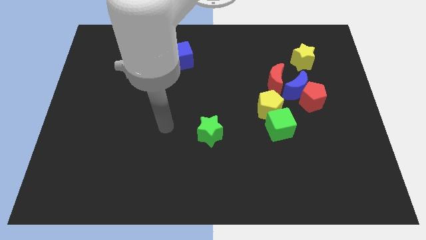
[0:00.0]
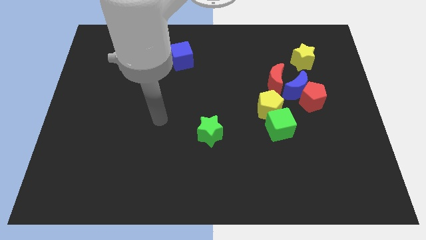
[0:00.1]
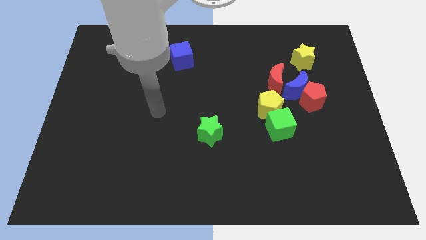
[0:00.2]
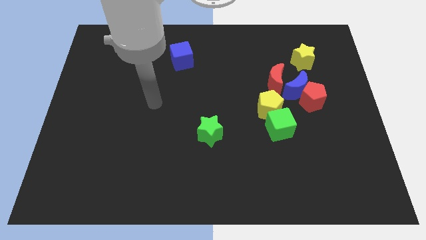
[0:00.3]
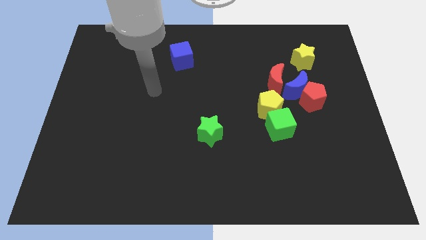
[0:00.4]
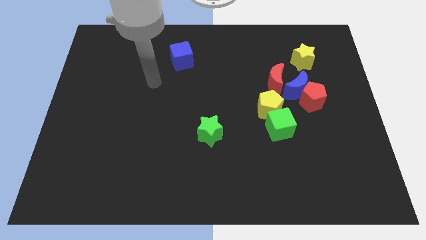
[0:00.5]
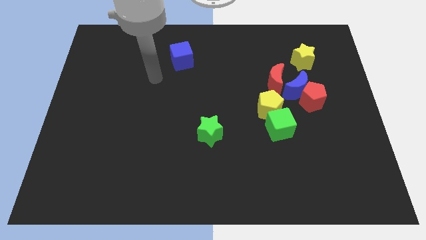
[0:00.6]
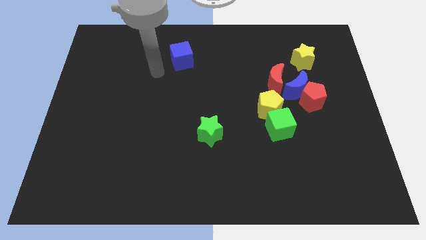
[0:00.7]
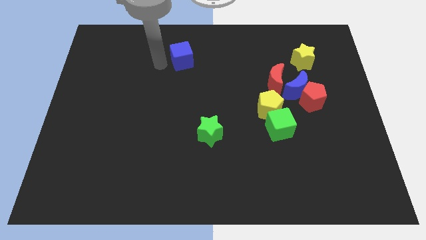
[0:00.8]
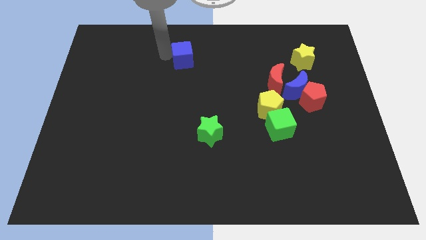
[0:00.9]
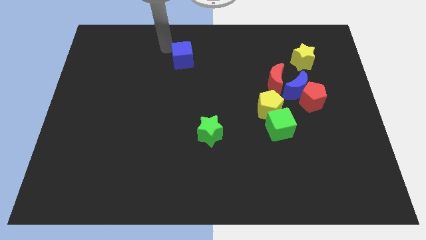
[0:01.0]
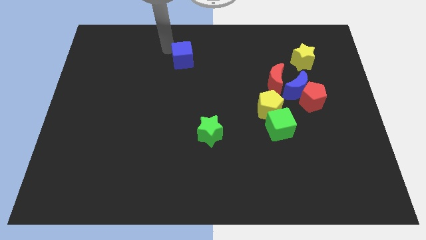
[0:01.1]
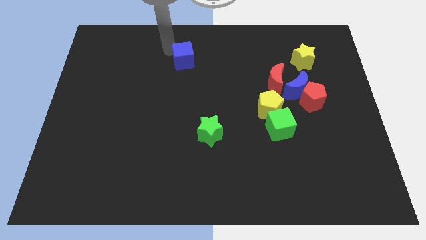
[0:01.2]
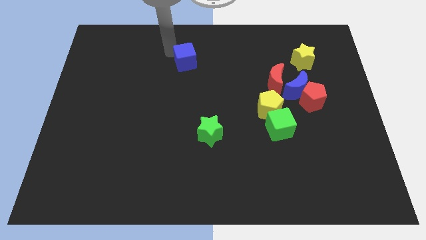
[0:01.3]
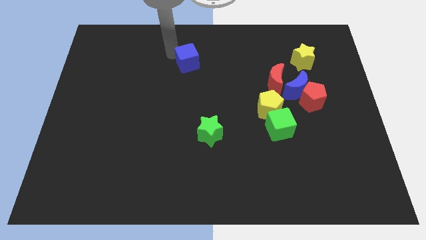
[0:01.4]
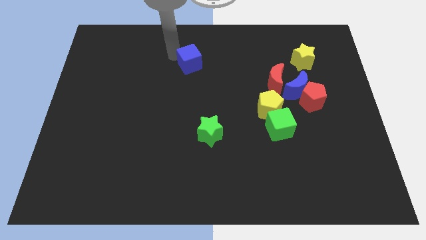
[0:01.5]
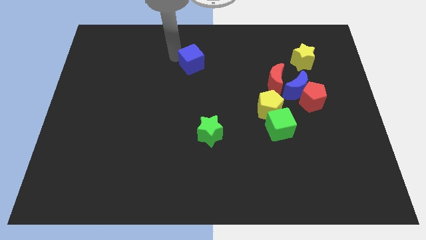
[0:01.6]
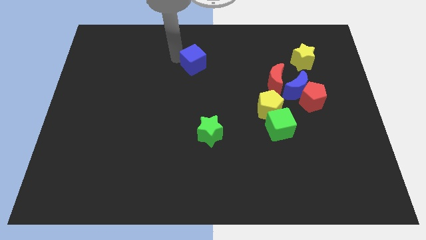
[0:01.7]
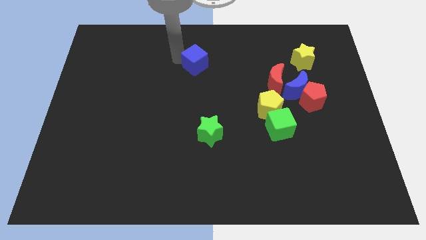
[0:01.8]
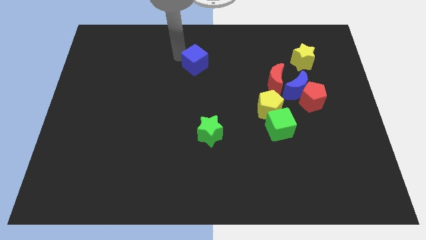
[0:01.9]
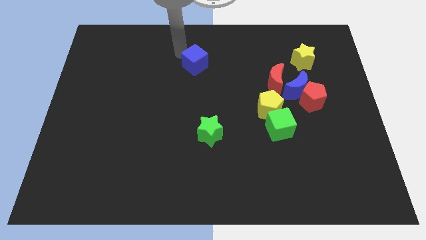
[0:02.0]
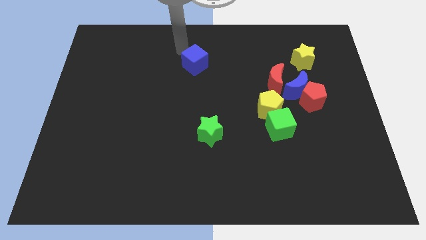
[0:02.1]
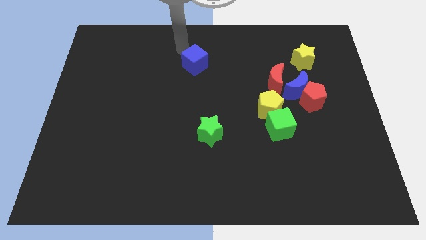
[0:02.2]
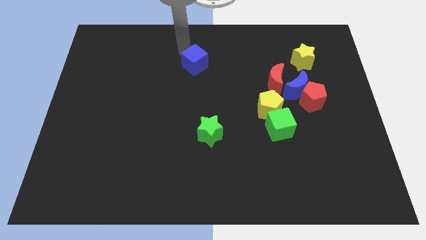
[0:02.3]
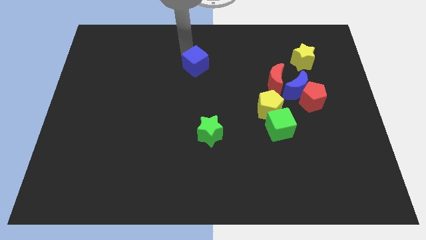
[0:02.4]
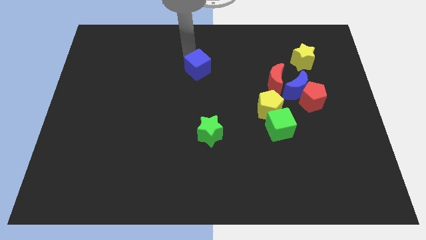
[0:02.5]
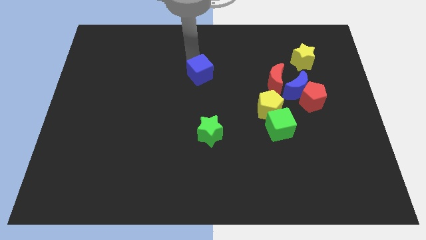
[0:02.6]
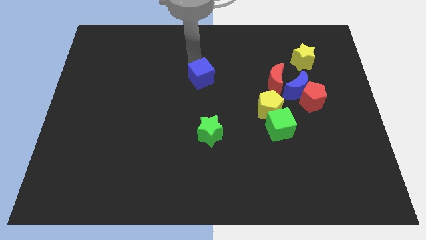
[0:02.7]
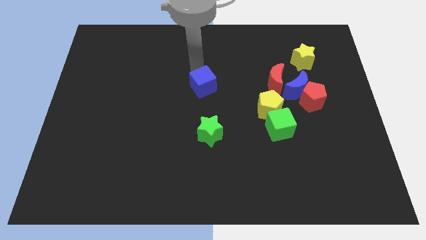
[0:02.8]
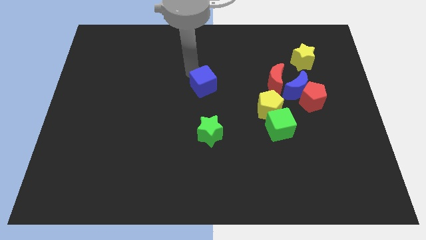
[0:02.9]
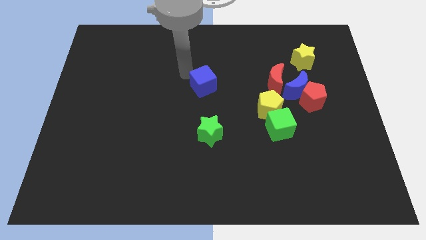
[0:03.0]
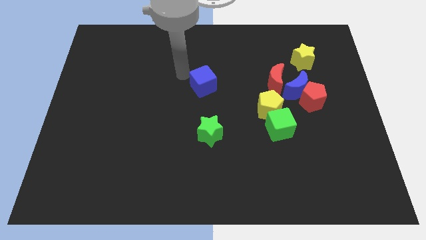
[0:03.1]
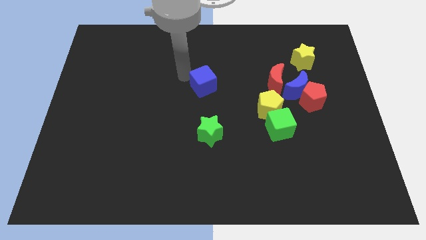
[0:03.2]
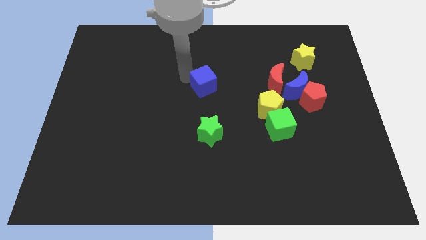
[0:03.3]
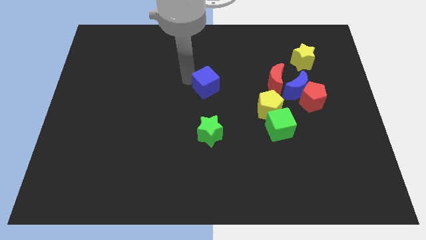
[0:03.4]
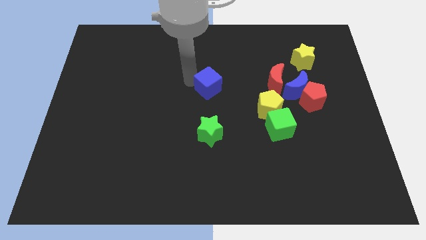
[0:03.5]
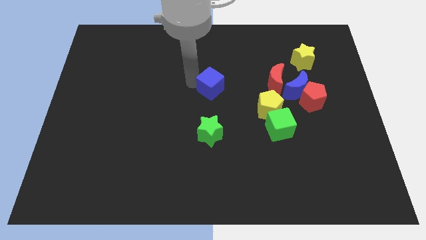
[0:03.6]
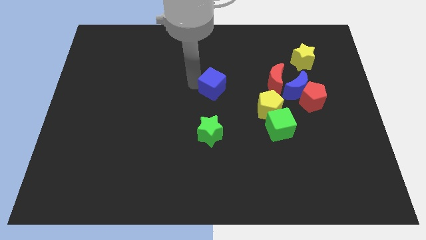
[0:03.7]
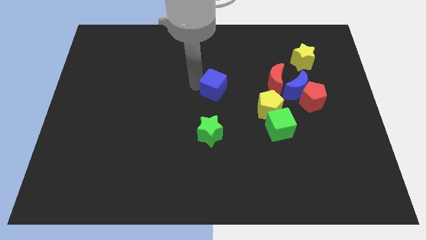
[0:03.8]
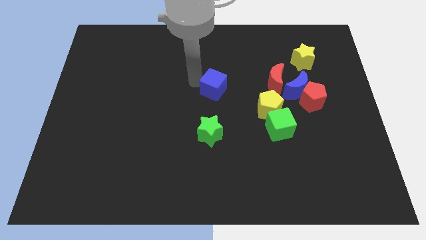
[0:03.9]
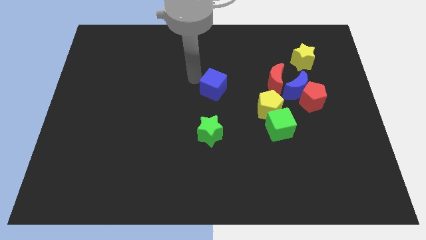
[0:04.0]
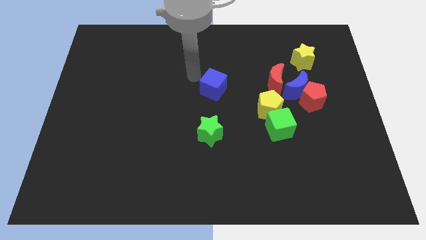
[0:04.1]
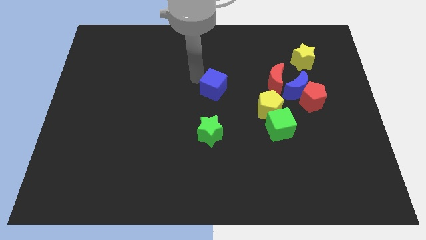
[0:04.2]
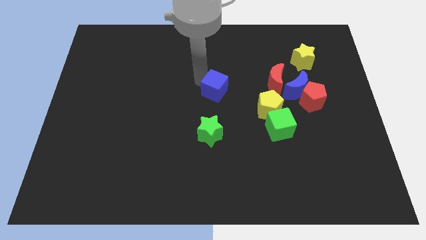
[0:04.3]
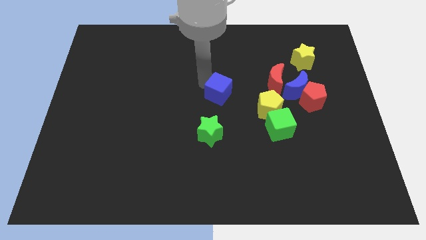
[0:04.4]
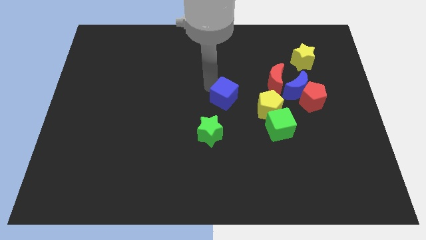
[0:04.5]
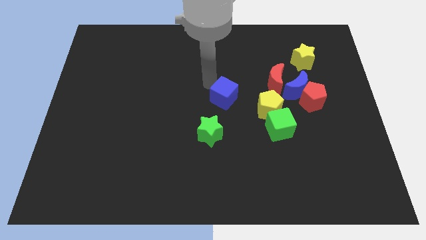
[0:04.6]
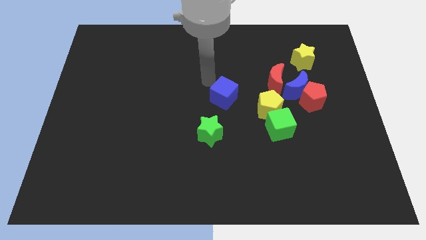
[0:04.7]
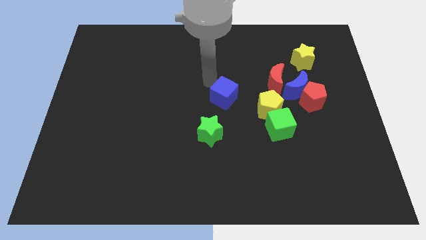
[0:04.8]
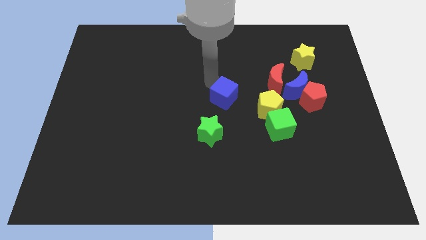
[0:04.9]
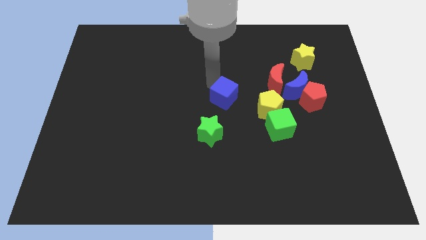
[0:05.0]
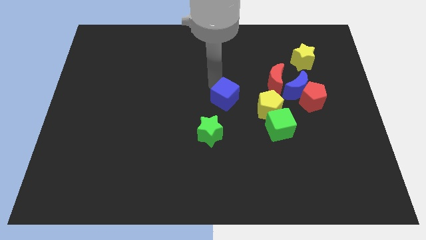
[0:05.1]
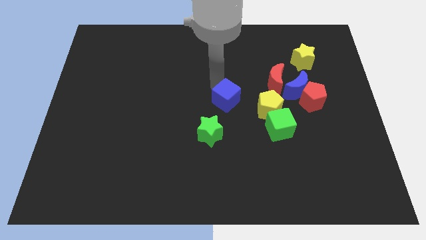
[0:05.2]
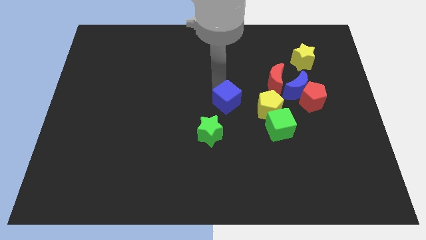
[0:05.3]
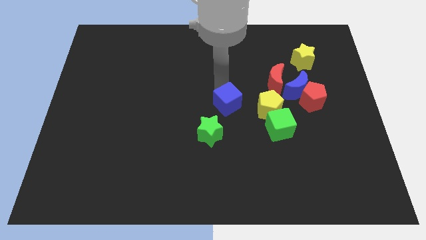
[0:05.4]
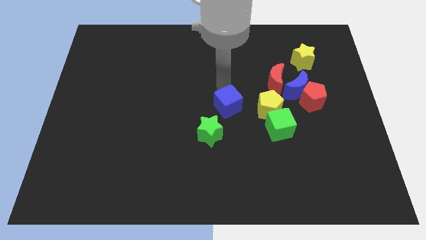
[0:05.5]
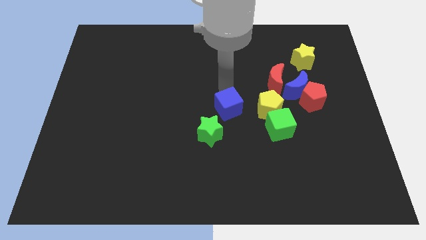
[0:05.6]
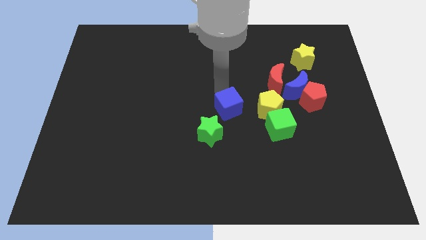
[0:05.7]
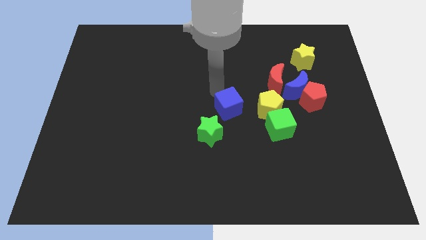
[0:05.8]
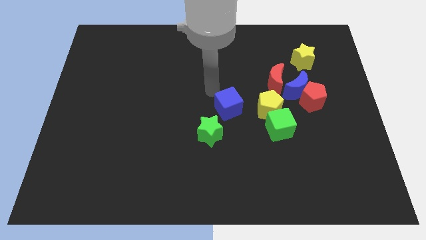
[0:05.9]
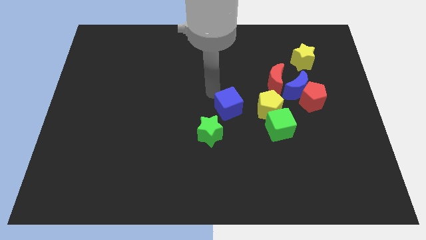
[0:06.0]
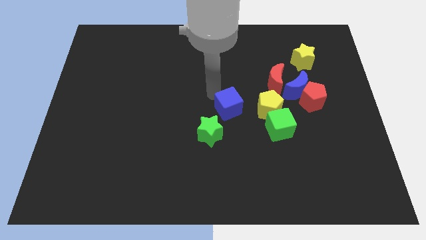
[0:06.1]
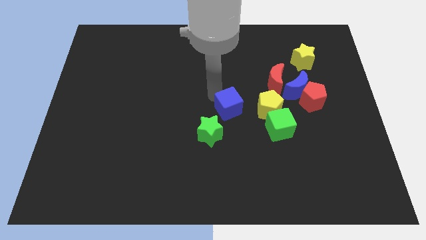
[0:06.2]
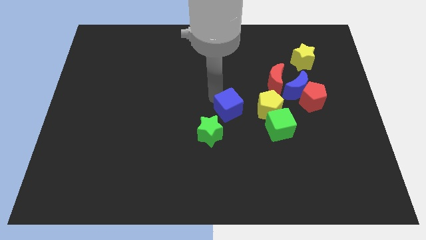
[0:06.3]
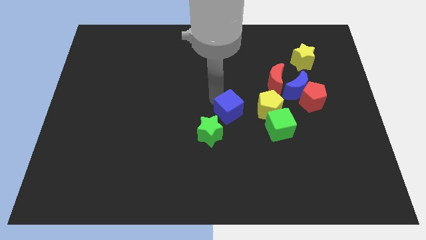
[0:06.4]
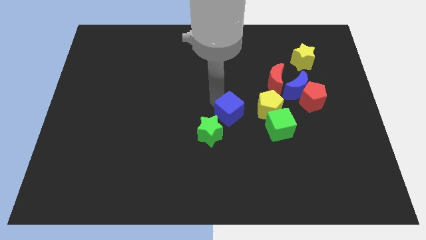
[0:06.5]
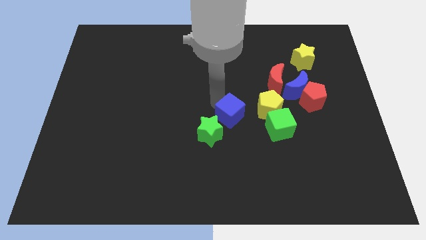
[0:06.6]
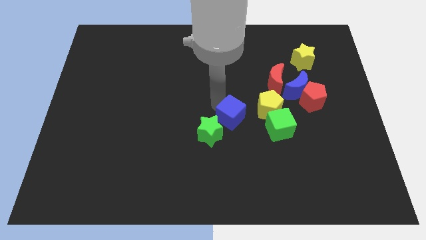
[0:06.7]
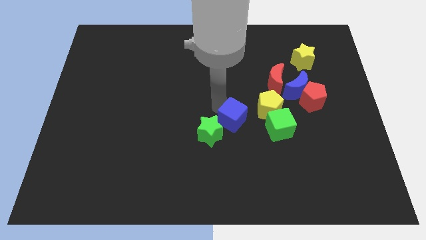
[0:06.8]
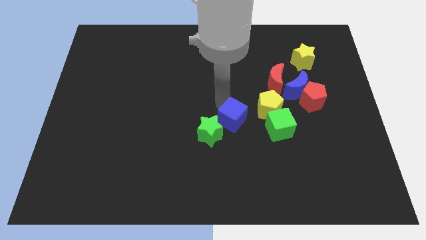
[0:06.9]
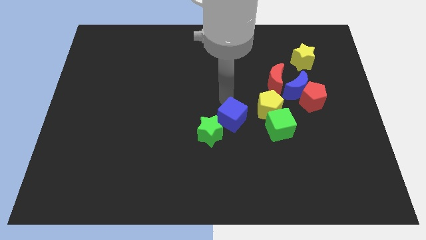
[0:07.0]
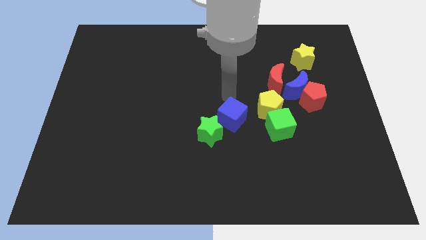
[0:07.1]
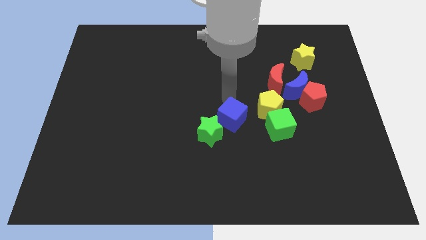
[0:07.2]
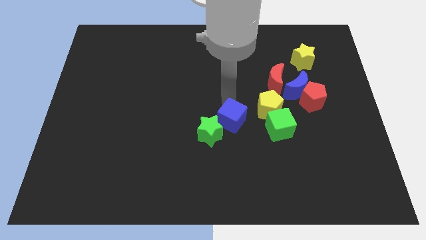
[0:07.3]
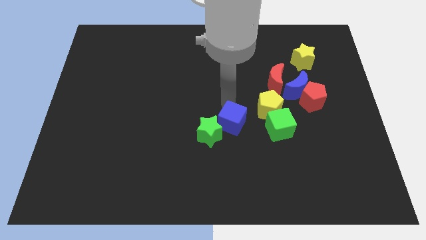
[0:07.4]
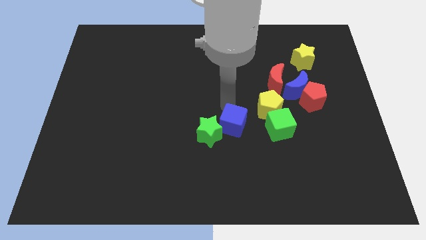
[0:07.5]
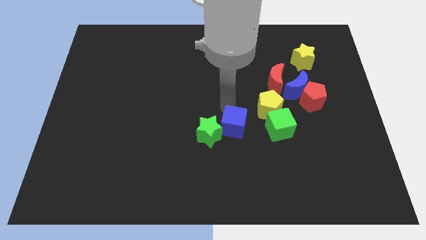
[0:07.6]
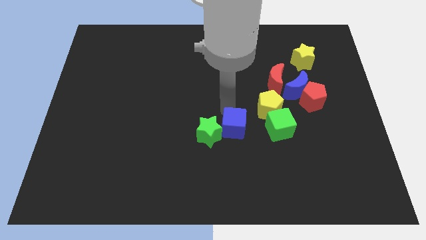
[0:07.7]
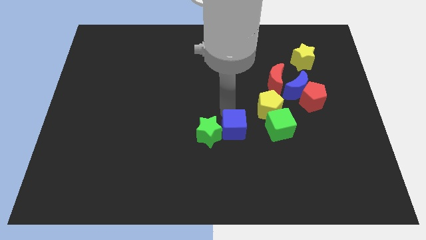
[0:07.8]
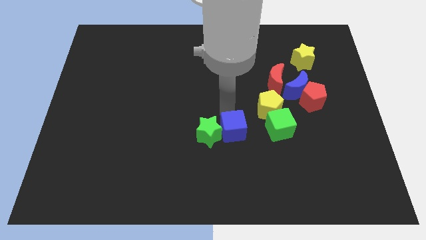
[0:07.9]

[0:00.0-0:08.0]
move the blue cube to the bottom right of the green star
